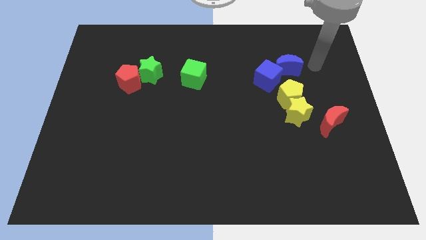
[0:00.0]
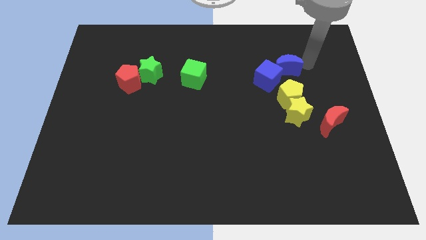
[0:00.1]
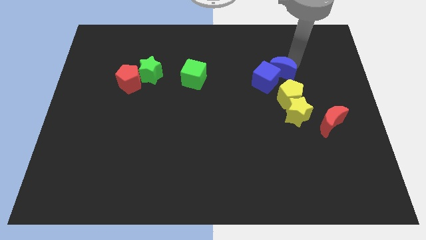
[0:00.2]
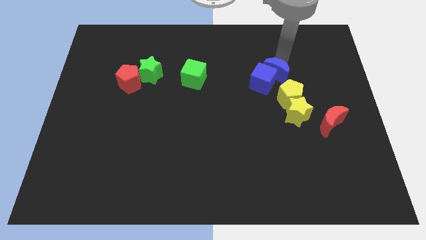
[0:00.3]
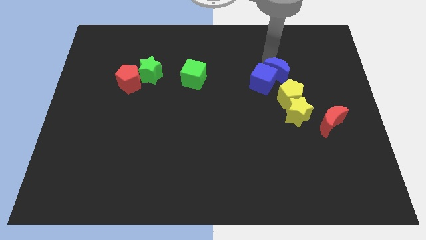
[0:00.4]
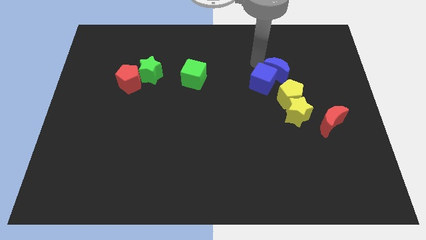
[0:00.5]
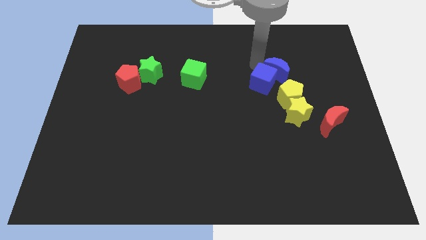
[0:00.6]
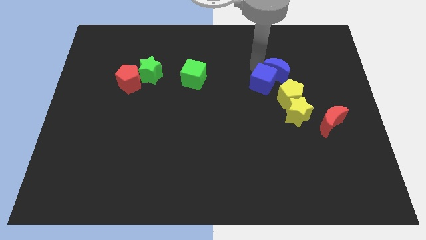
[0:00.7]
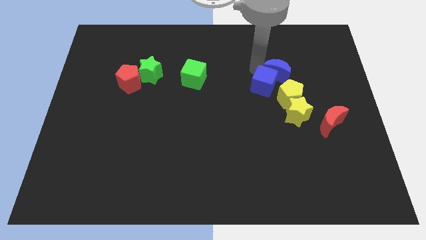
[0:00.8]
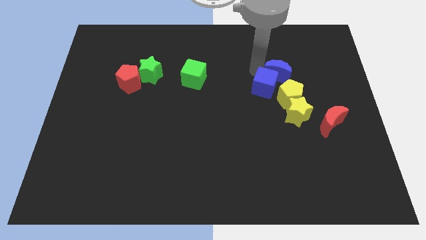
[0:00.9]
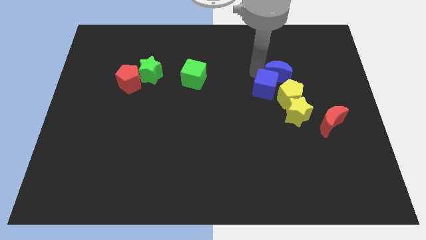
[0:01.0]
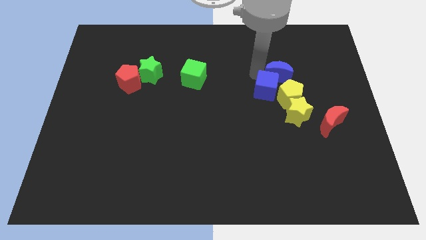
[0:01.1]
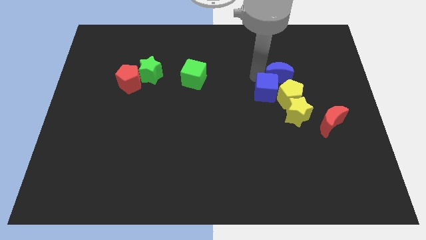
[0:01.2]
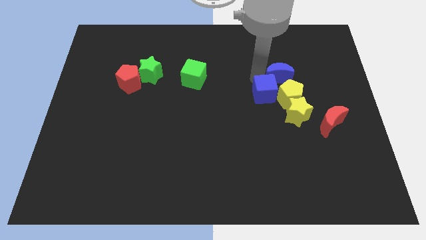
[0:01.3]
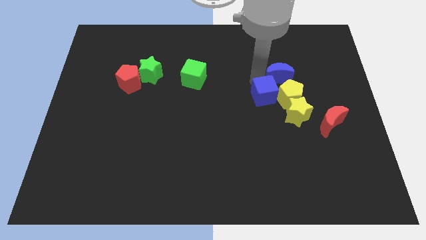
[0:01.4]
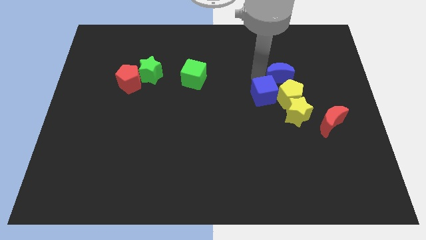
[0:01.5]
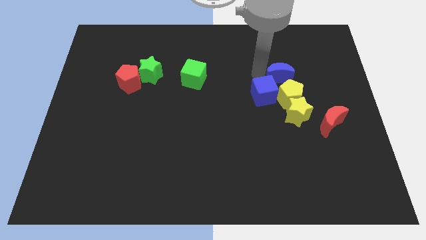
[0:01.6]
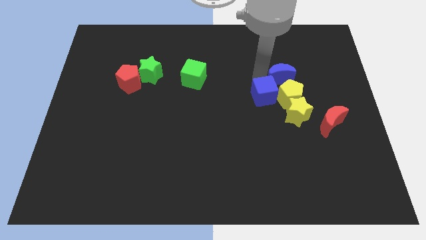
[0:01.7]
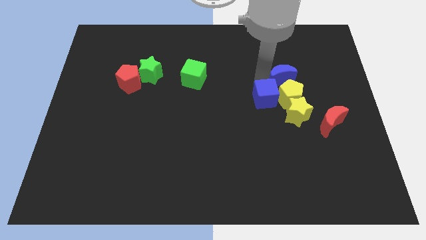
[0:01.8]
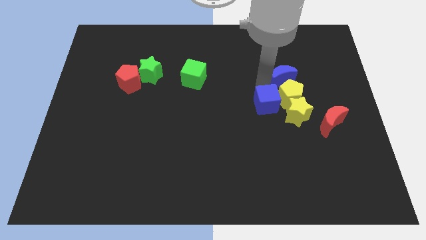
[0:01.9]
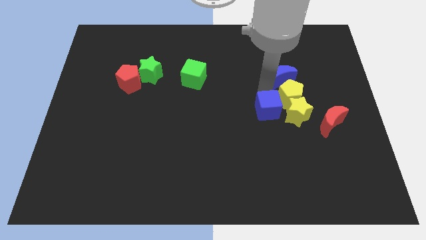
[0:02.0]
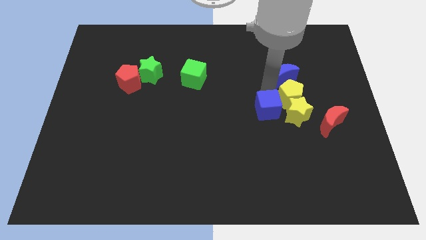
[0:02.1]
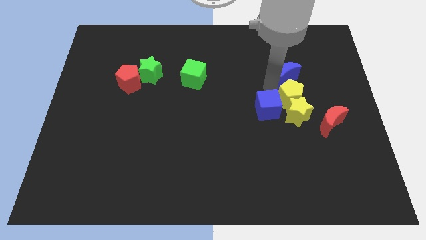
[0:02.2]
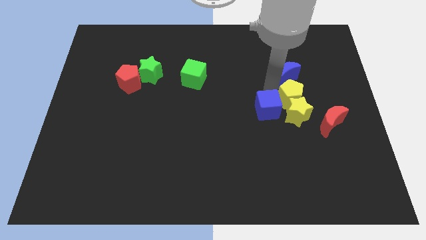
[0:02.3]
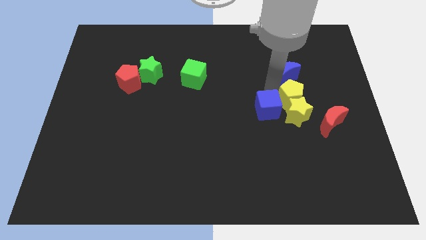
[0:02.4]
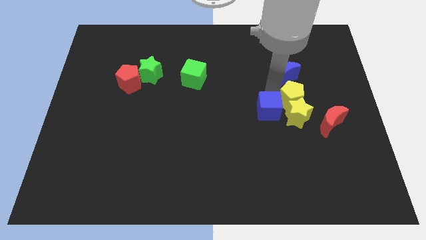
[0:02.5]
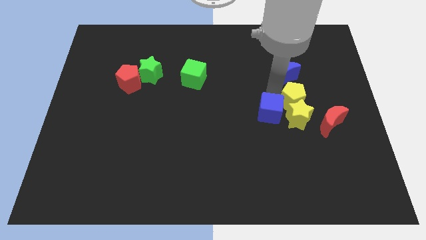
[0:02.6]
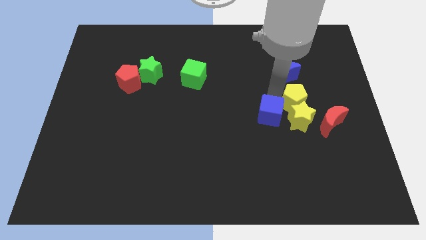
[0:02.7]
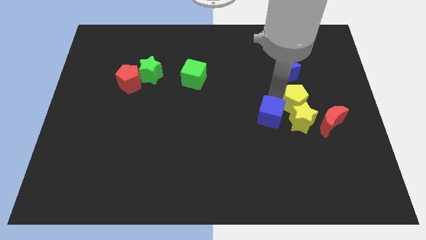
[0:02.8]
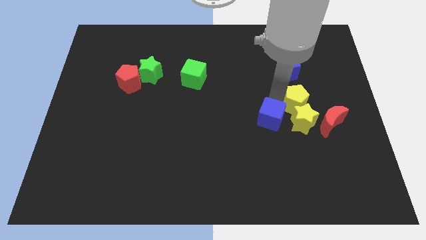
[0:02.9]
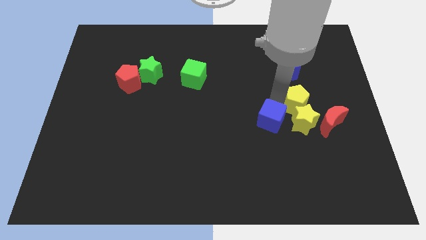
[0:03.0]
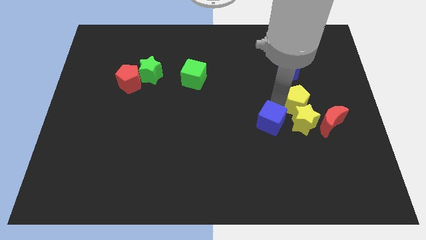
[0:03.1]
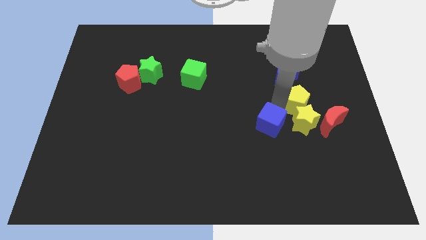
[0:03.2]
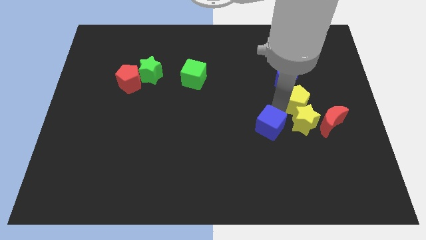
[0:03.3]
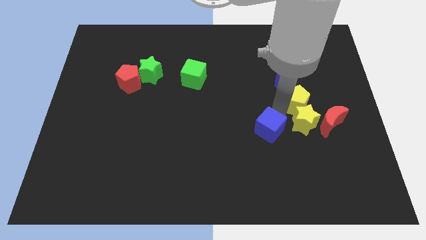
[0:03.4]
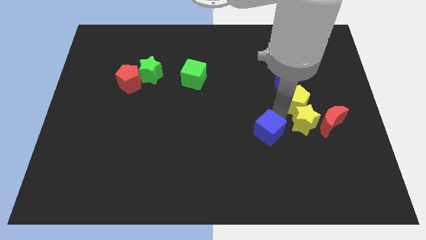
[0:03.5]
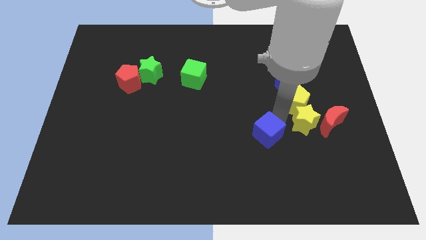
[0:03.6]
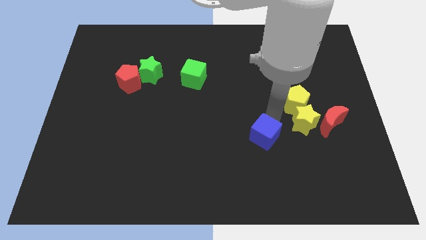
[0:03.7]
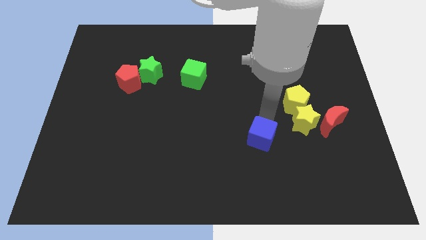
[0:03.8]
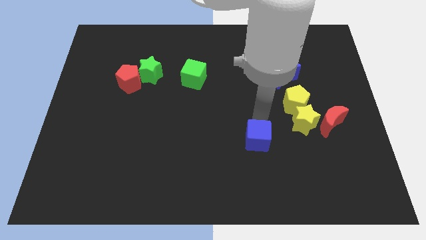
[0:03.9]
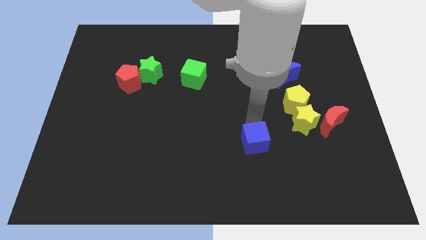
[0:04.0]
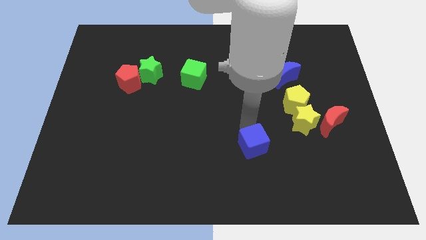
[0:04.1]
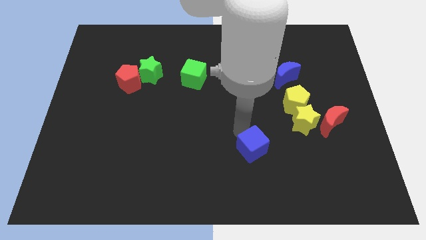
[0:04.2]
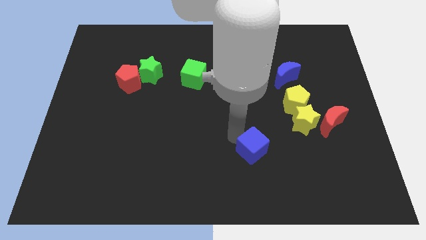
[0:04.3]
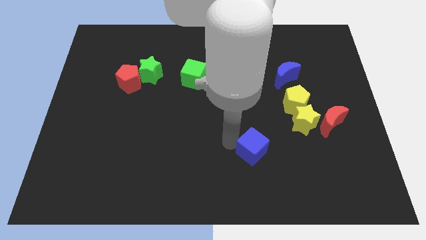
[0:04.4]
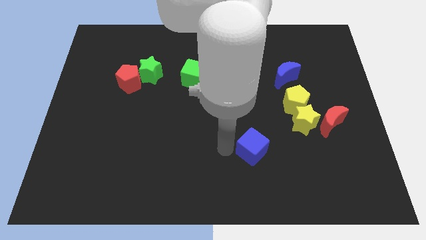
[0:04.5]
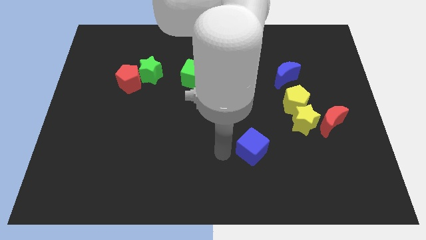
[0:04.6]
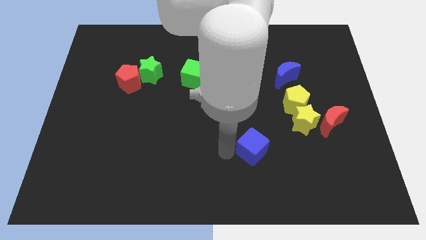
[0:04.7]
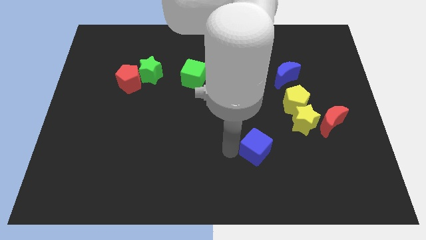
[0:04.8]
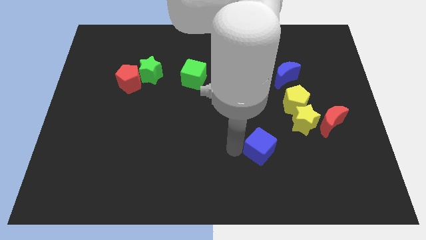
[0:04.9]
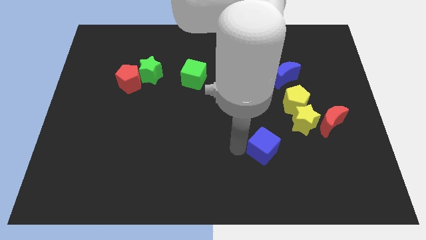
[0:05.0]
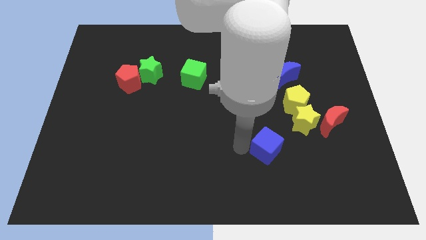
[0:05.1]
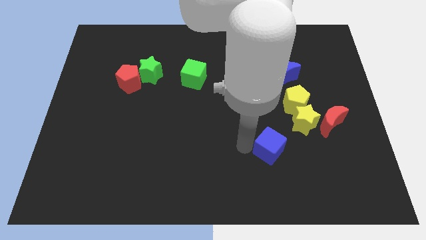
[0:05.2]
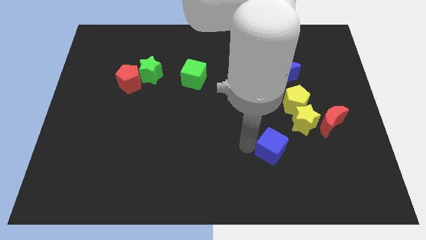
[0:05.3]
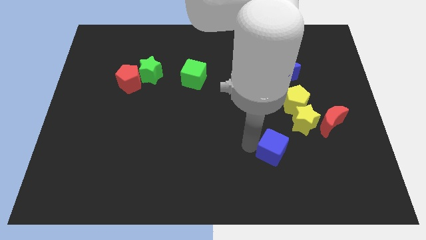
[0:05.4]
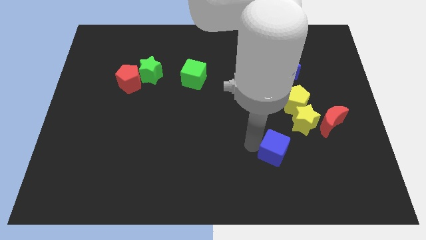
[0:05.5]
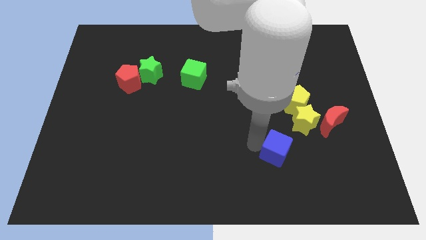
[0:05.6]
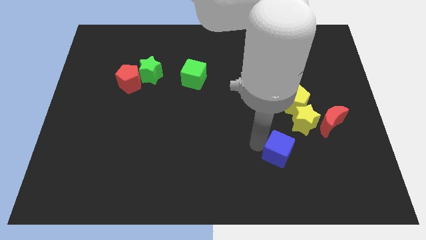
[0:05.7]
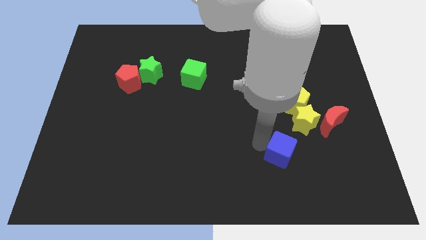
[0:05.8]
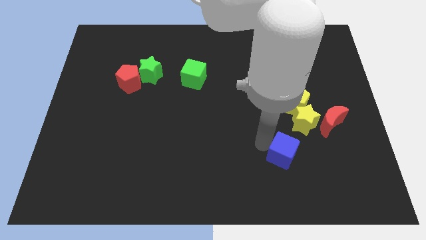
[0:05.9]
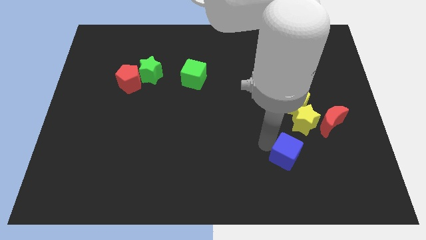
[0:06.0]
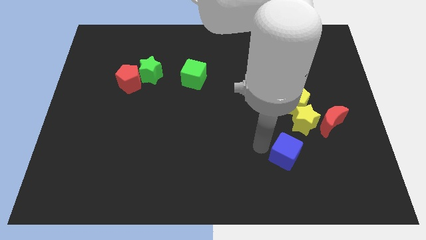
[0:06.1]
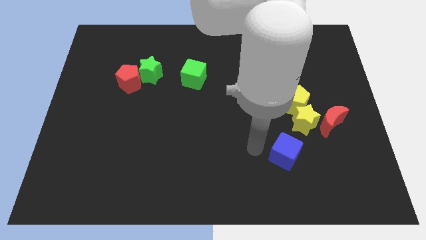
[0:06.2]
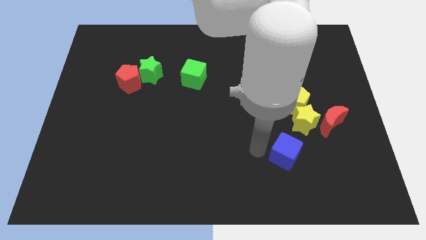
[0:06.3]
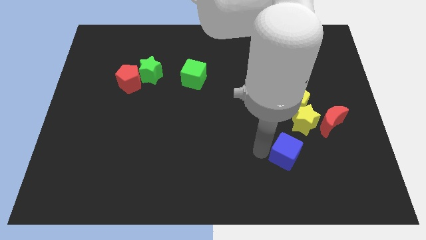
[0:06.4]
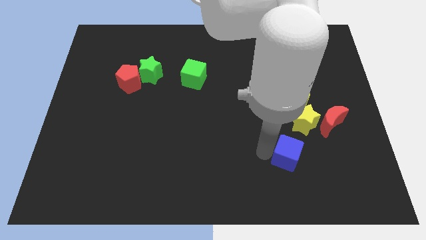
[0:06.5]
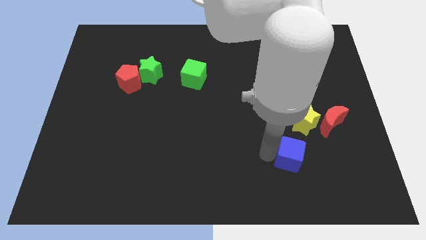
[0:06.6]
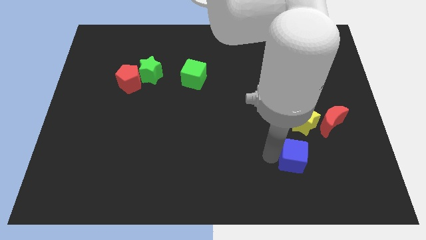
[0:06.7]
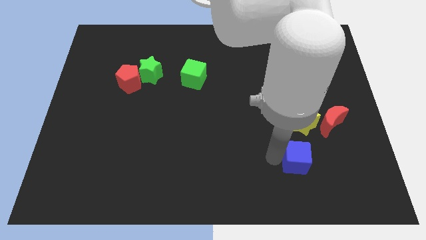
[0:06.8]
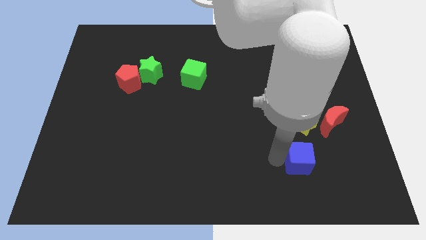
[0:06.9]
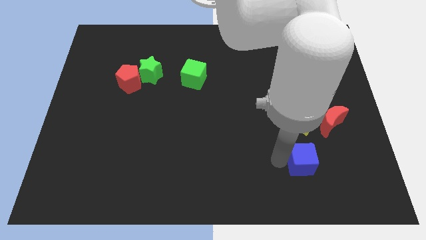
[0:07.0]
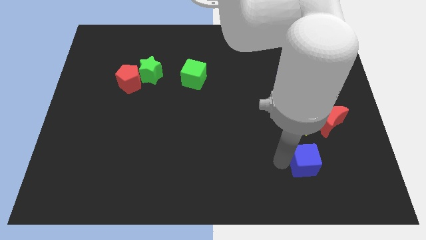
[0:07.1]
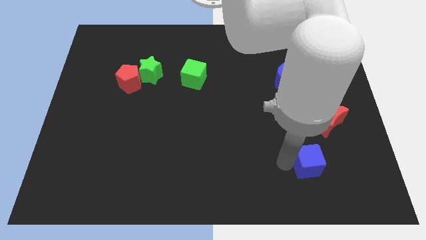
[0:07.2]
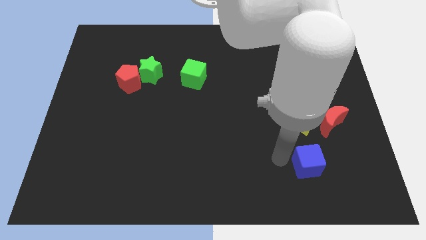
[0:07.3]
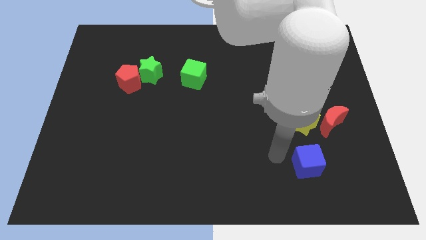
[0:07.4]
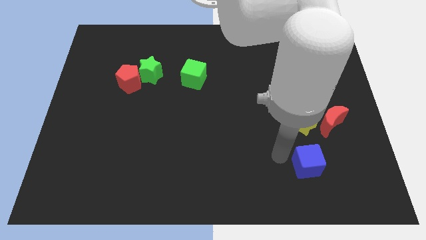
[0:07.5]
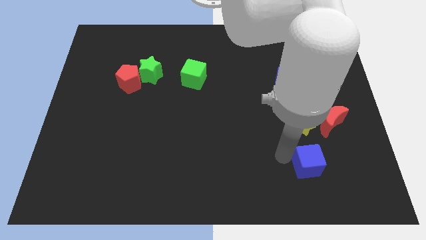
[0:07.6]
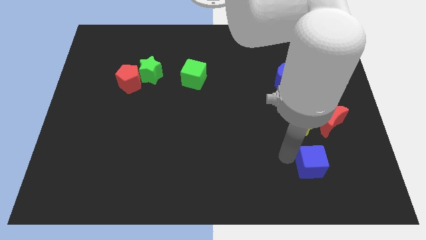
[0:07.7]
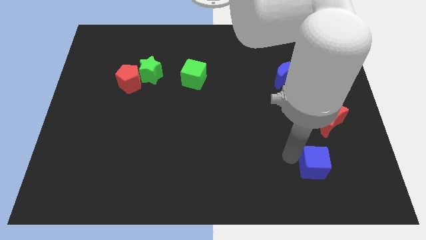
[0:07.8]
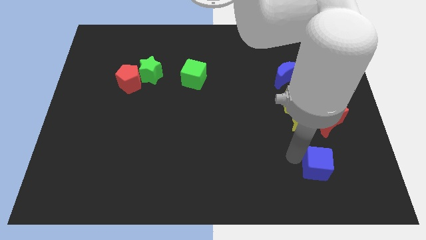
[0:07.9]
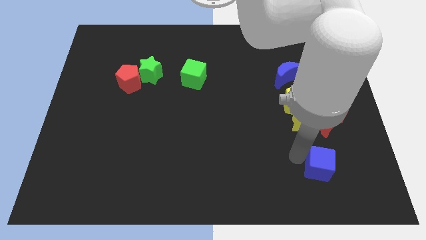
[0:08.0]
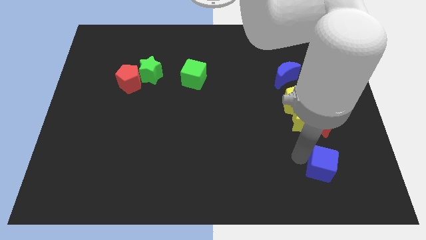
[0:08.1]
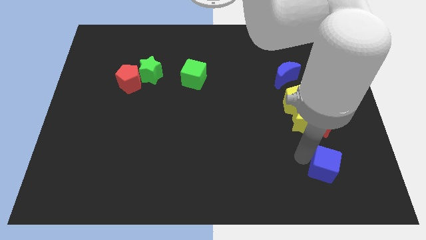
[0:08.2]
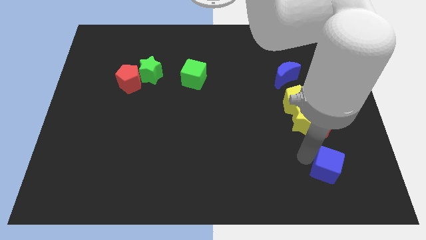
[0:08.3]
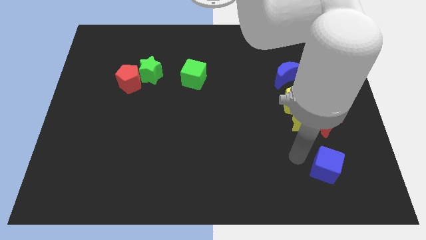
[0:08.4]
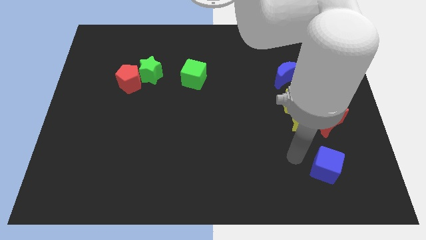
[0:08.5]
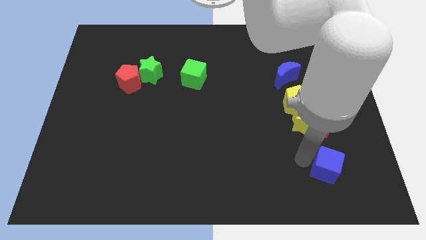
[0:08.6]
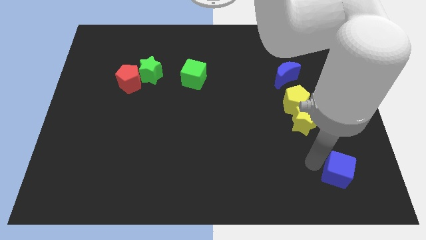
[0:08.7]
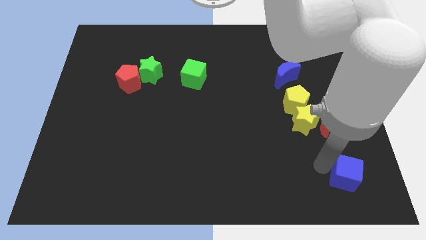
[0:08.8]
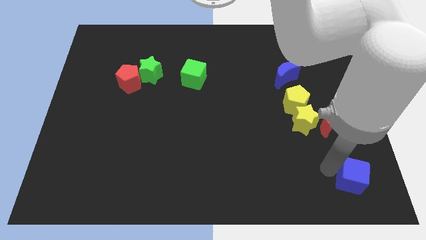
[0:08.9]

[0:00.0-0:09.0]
push the blue cube to the bottom right of the board
